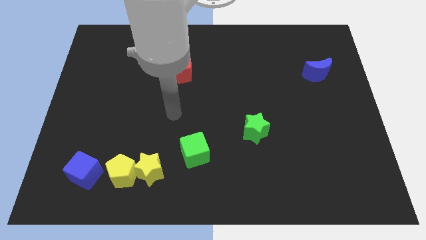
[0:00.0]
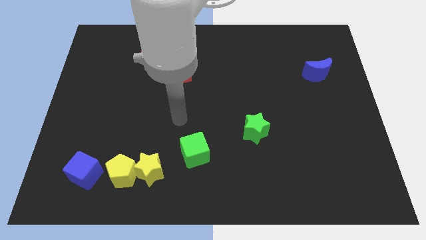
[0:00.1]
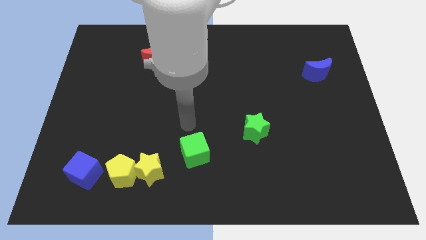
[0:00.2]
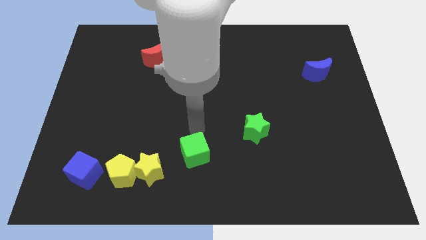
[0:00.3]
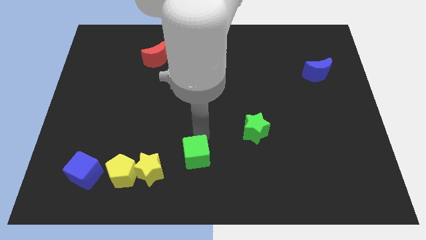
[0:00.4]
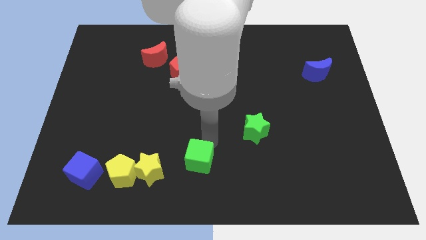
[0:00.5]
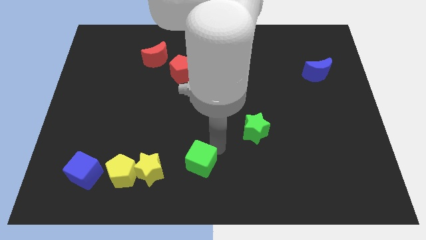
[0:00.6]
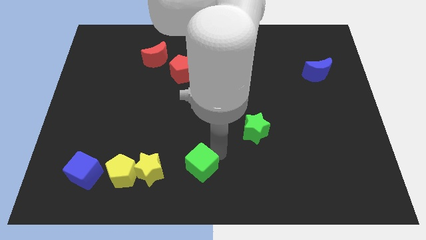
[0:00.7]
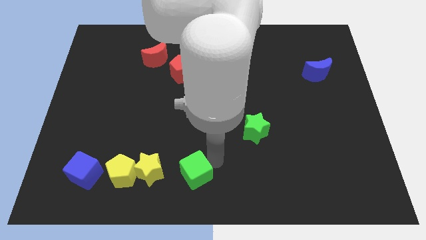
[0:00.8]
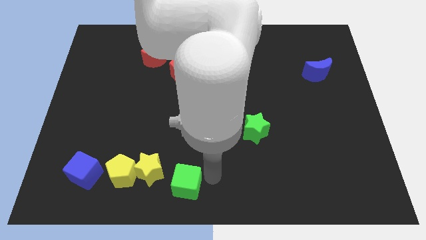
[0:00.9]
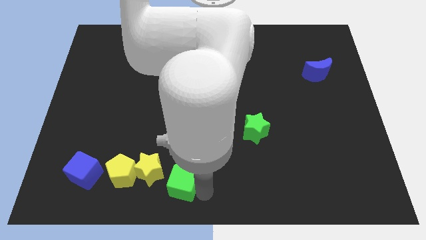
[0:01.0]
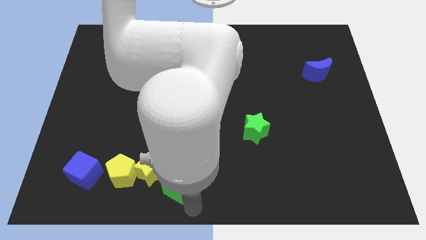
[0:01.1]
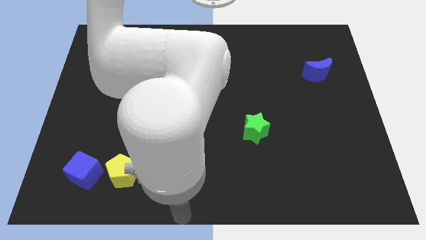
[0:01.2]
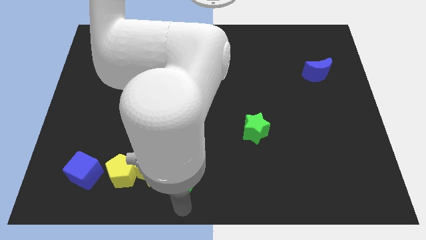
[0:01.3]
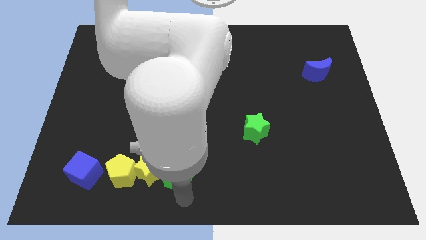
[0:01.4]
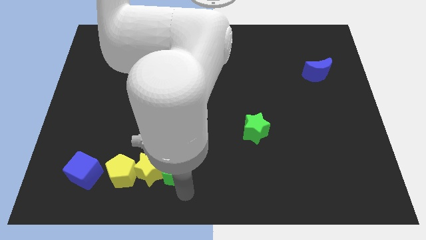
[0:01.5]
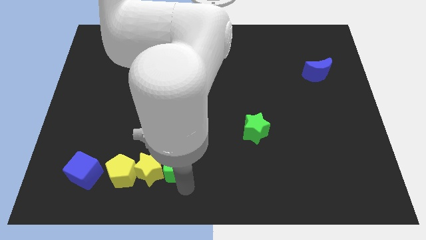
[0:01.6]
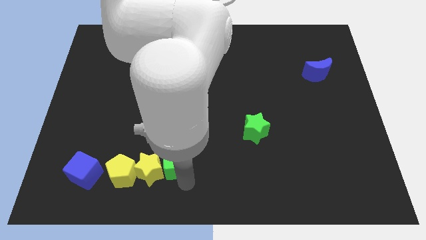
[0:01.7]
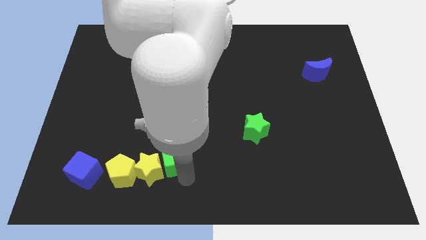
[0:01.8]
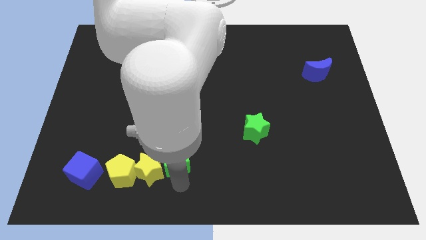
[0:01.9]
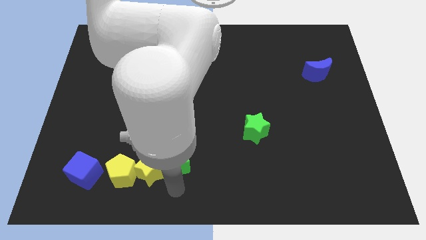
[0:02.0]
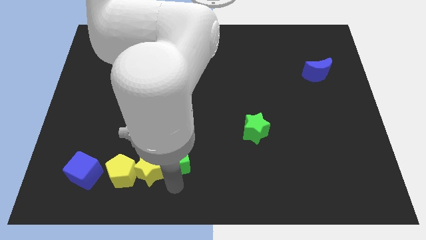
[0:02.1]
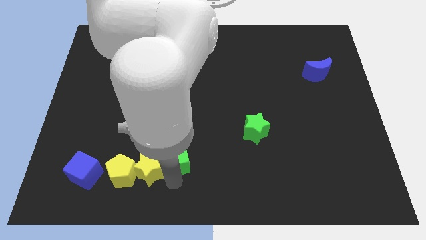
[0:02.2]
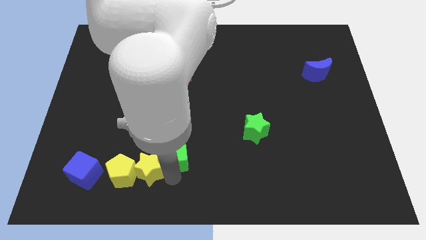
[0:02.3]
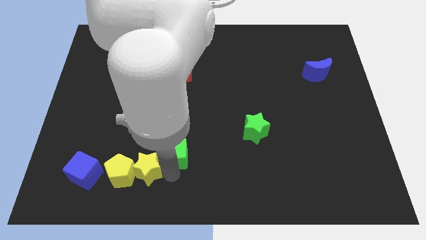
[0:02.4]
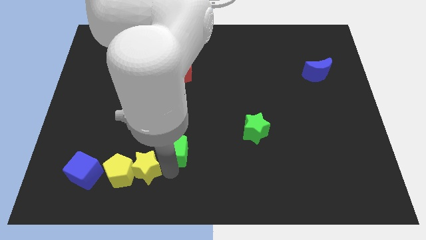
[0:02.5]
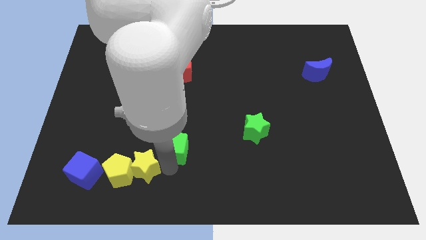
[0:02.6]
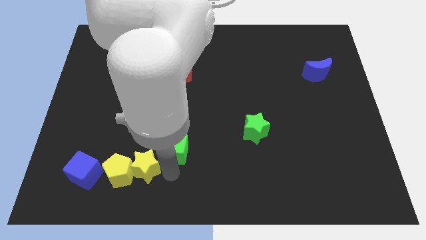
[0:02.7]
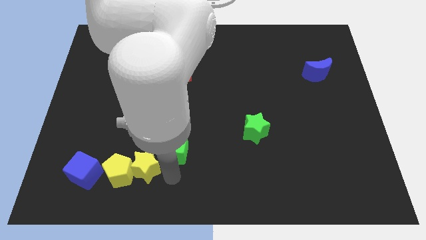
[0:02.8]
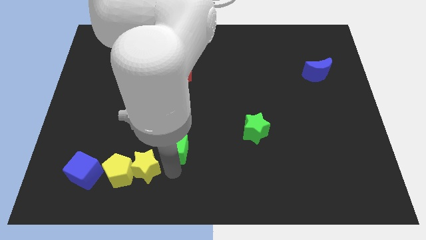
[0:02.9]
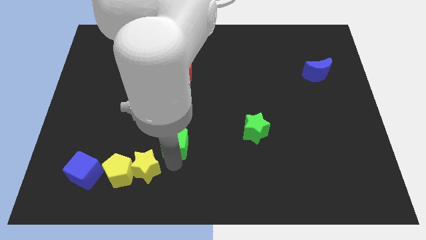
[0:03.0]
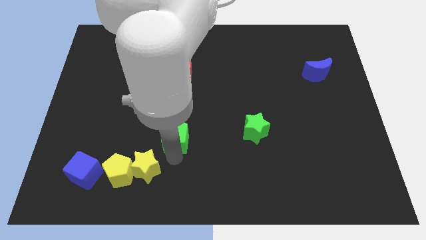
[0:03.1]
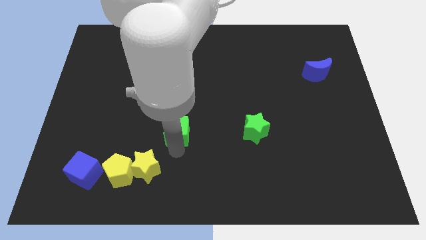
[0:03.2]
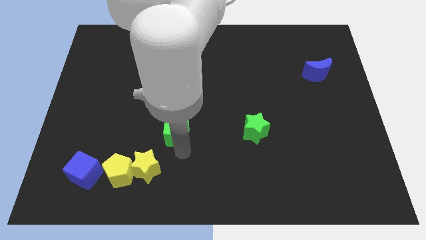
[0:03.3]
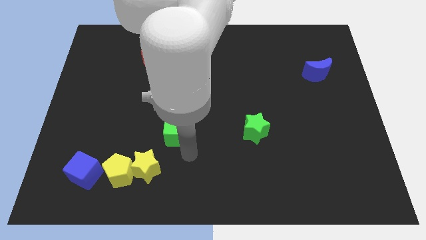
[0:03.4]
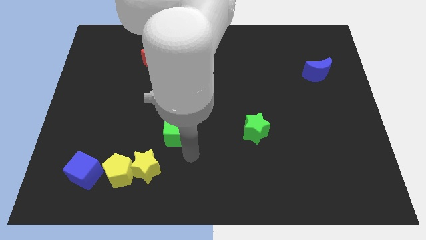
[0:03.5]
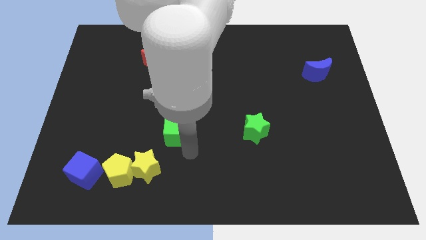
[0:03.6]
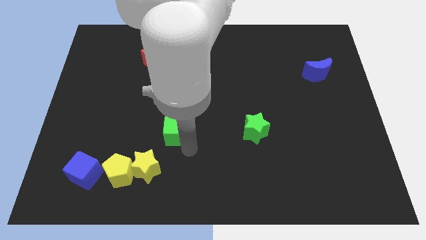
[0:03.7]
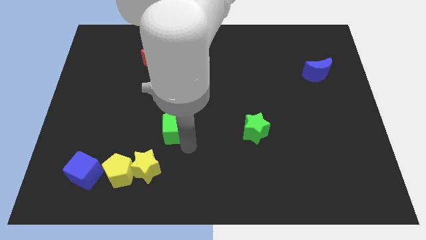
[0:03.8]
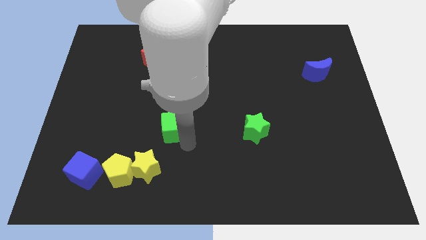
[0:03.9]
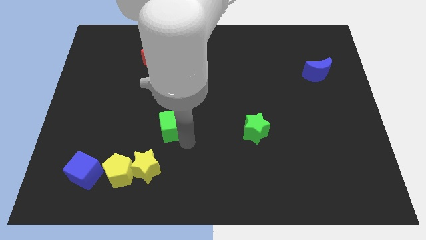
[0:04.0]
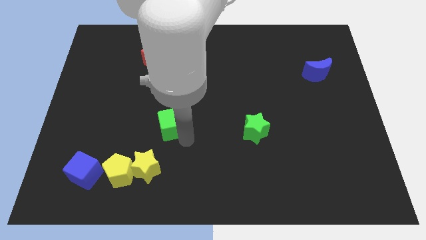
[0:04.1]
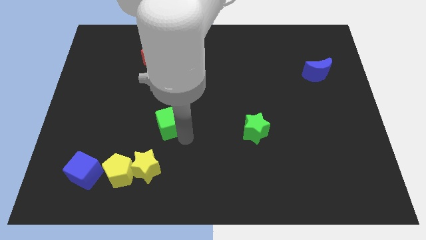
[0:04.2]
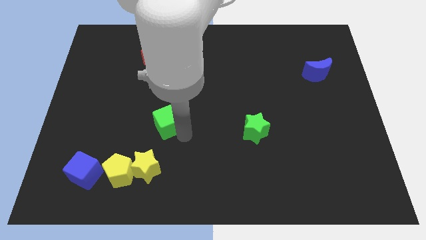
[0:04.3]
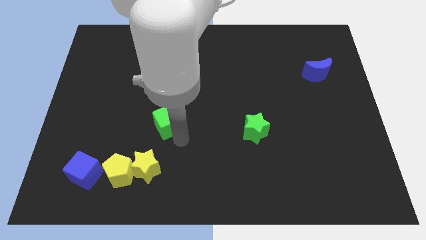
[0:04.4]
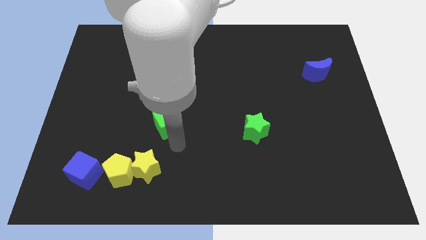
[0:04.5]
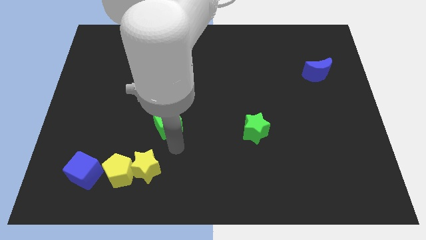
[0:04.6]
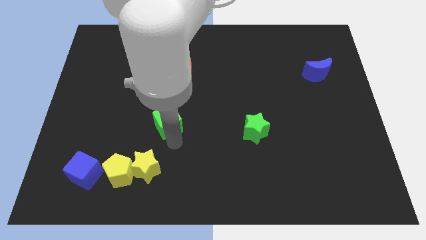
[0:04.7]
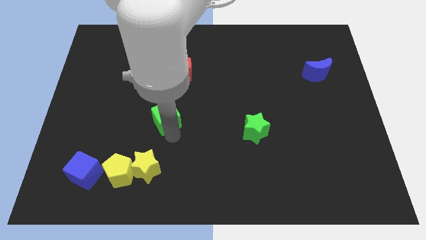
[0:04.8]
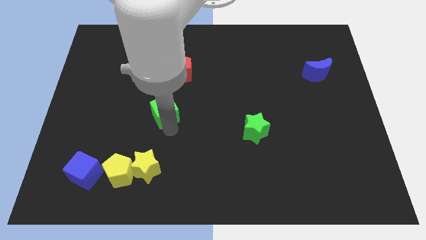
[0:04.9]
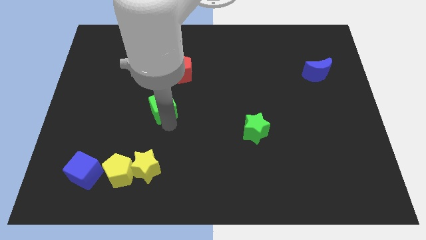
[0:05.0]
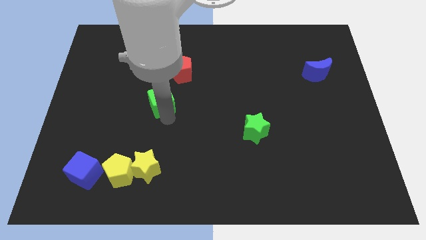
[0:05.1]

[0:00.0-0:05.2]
push the green cube to the bottom of the red moon

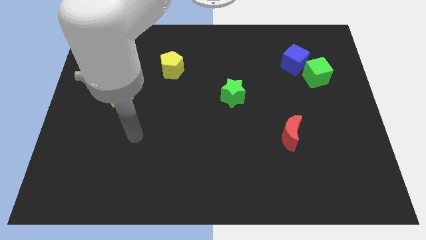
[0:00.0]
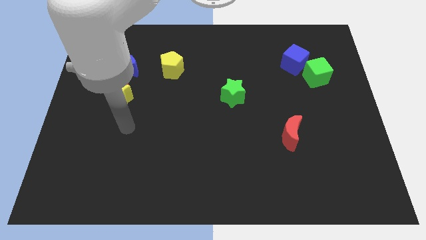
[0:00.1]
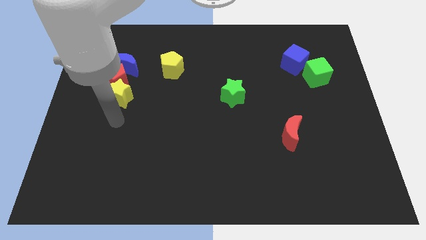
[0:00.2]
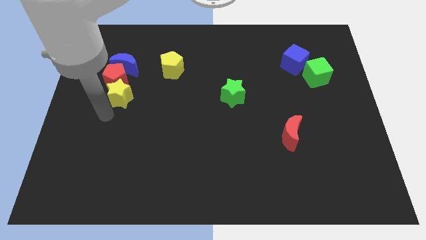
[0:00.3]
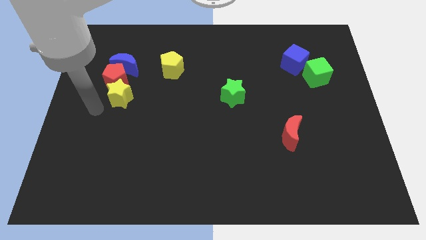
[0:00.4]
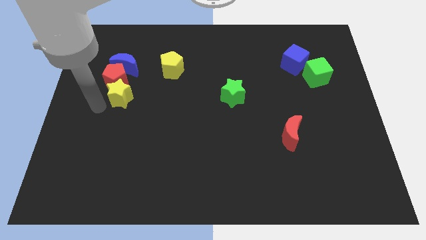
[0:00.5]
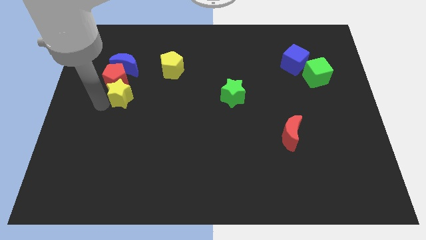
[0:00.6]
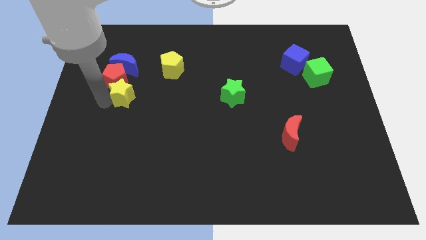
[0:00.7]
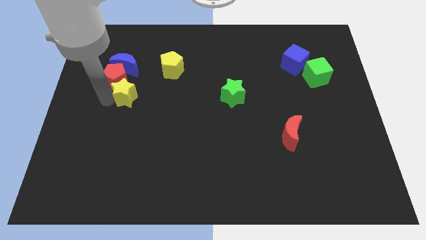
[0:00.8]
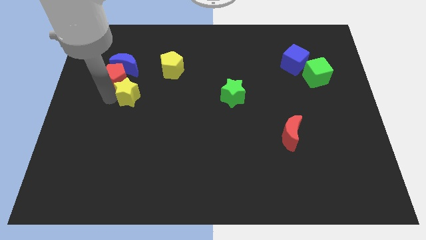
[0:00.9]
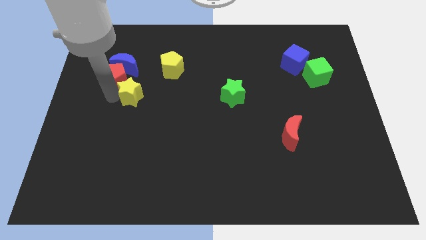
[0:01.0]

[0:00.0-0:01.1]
slide the yellow star to the bottom left of the yellow pentagon

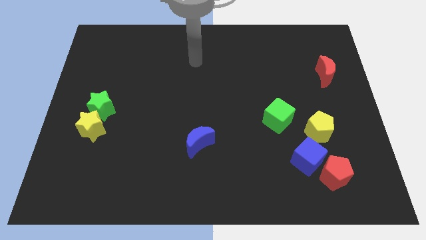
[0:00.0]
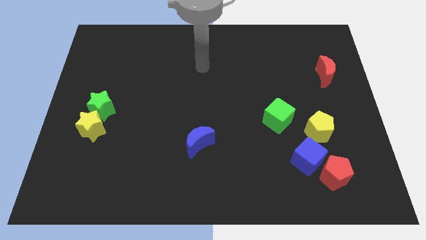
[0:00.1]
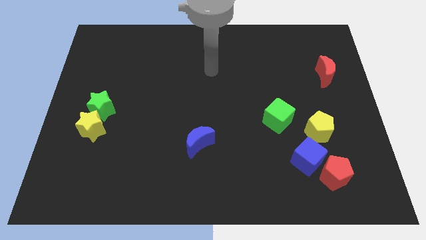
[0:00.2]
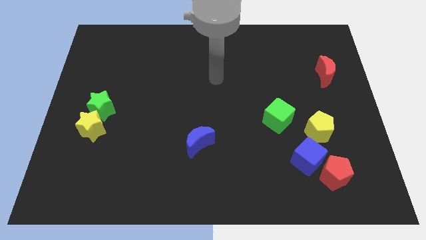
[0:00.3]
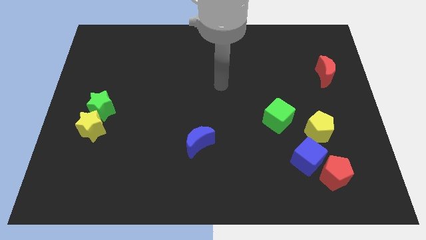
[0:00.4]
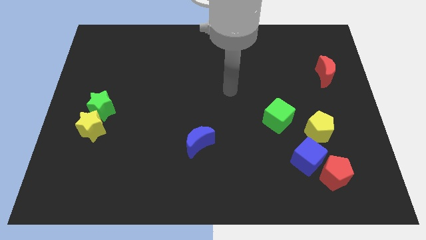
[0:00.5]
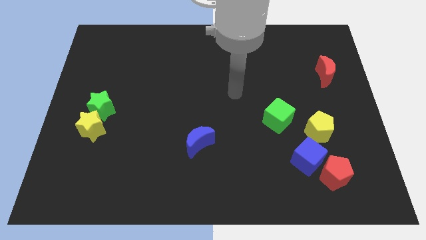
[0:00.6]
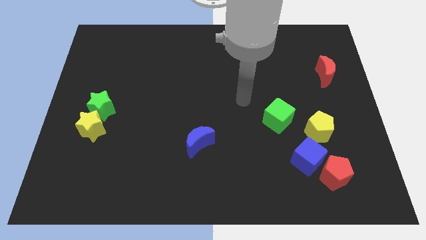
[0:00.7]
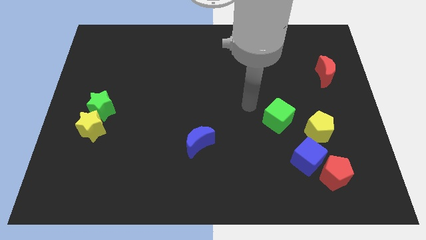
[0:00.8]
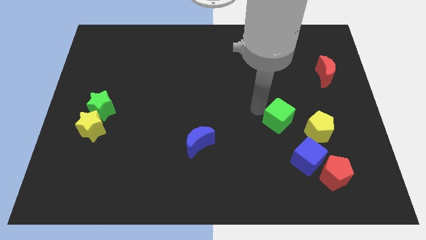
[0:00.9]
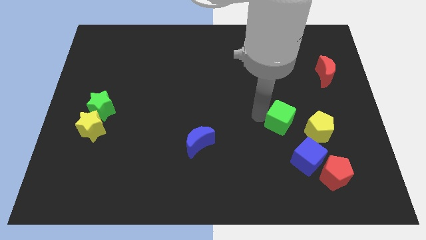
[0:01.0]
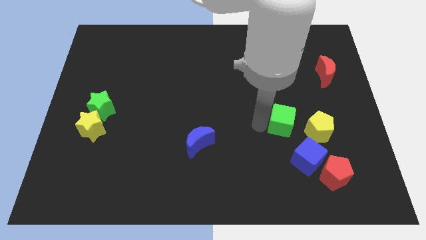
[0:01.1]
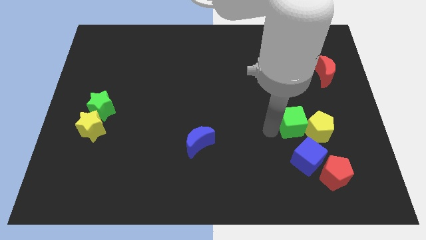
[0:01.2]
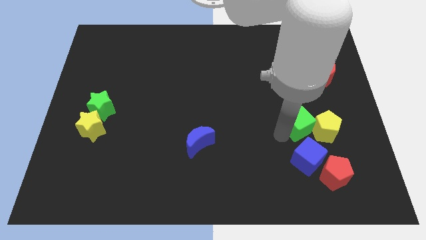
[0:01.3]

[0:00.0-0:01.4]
move the yellow pentagon diagonally up and to the right of the green cube
